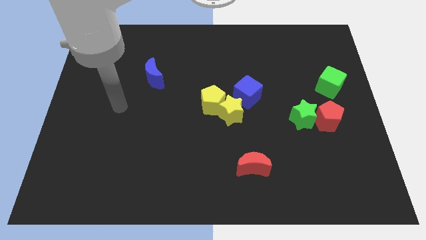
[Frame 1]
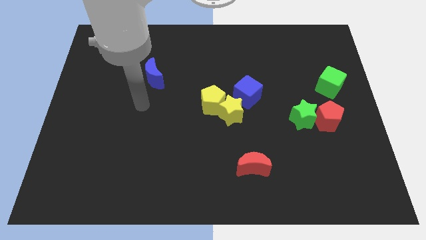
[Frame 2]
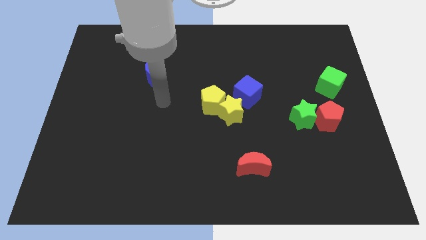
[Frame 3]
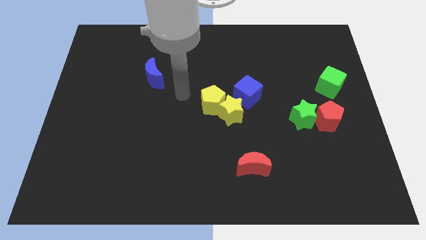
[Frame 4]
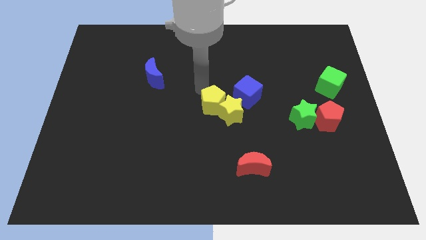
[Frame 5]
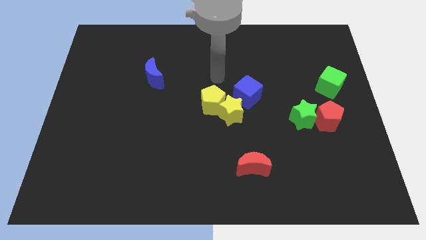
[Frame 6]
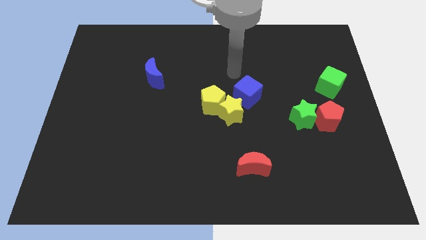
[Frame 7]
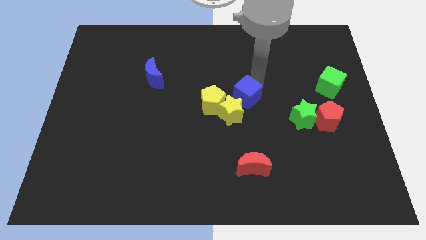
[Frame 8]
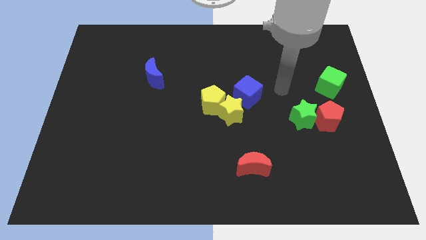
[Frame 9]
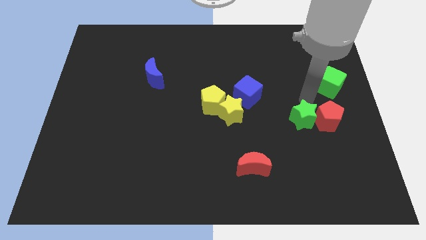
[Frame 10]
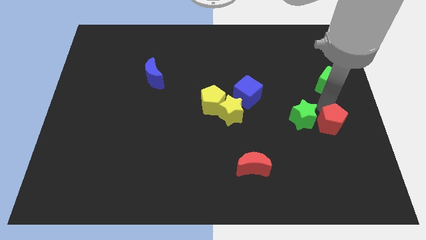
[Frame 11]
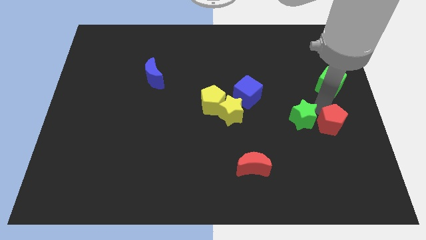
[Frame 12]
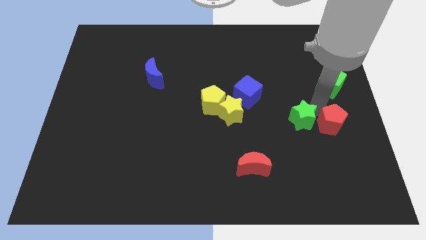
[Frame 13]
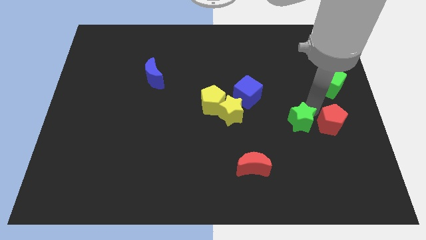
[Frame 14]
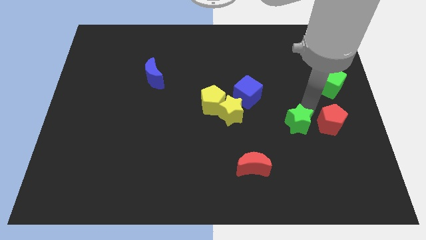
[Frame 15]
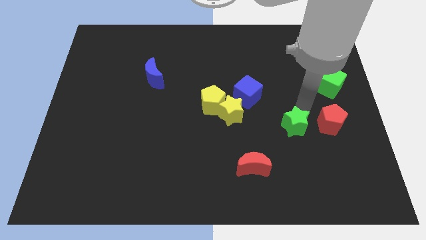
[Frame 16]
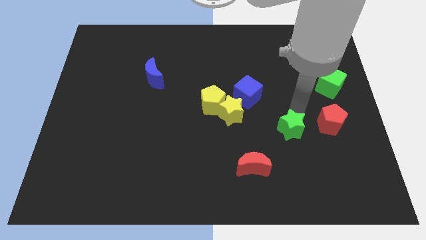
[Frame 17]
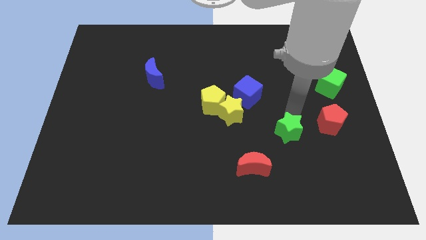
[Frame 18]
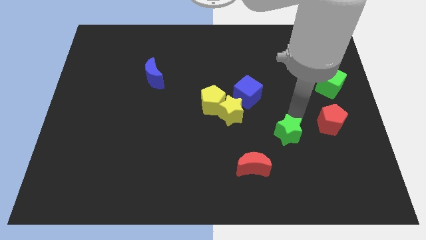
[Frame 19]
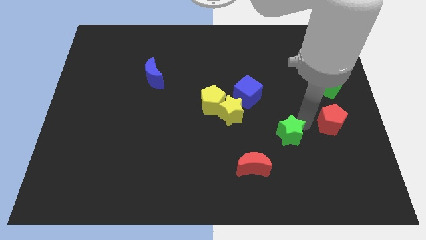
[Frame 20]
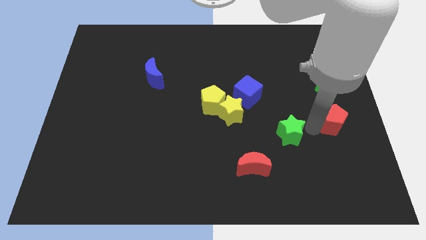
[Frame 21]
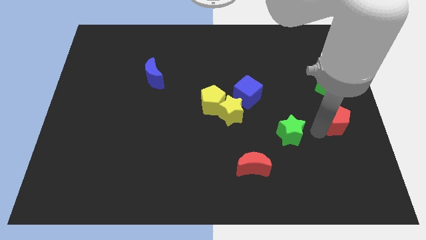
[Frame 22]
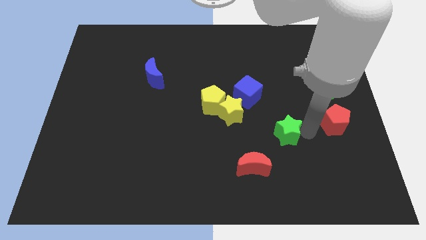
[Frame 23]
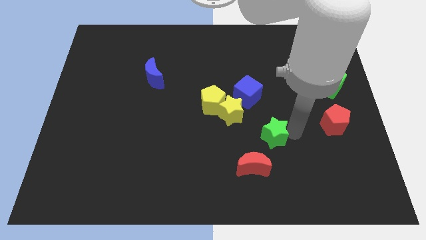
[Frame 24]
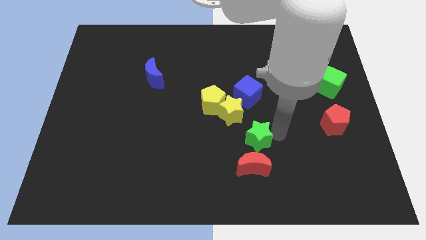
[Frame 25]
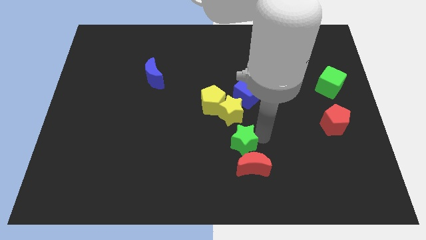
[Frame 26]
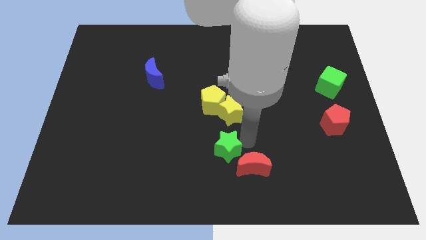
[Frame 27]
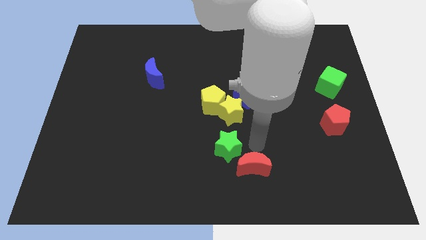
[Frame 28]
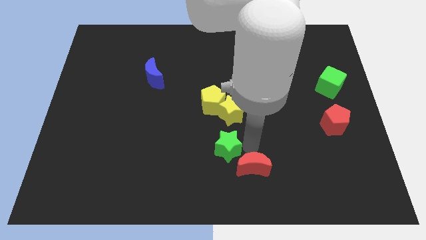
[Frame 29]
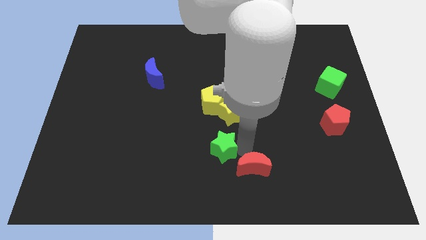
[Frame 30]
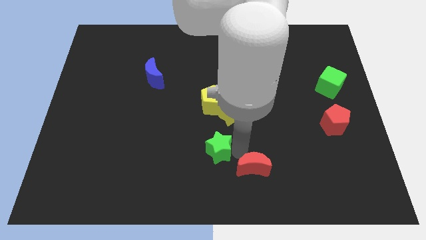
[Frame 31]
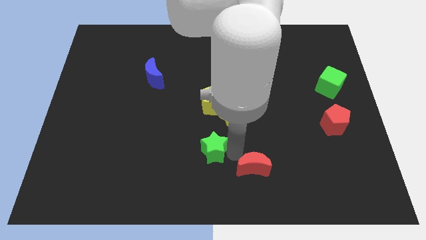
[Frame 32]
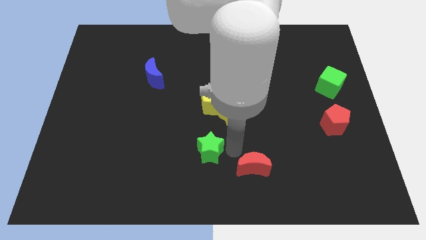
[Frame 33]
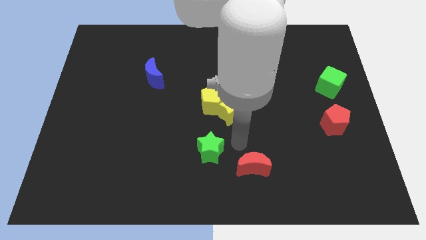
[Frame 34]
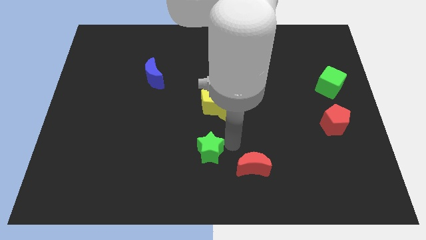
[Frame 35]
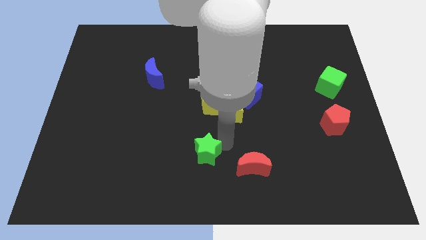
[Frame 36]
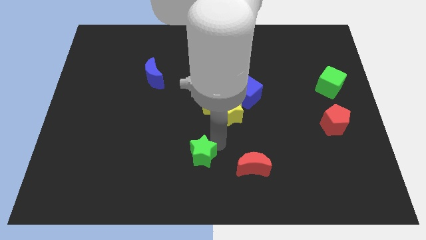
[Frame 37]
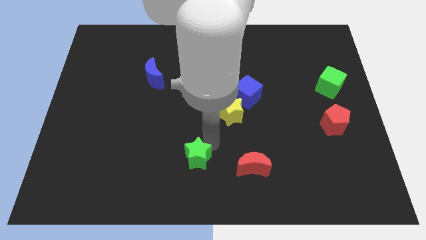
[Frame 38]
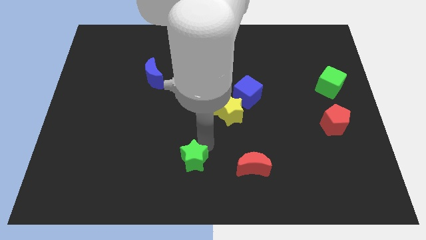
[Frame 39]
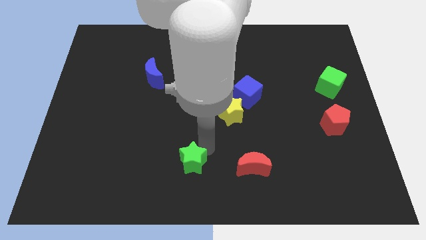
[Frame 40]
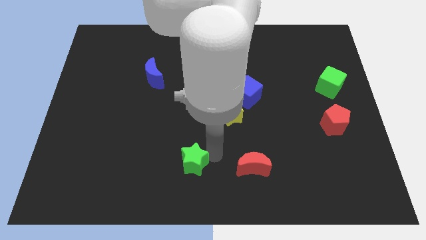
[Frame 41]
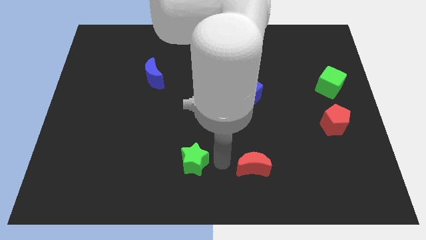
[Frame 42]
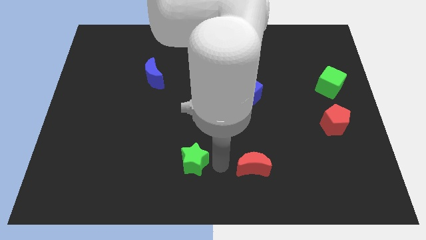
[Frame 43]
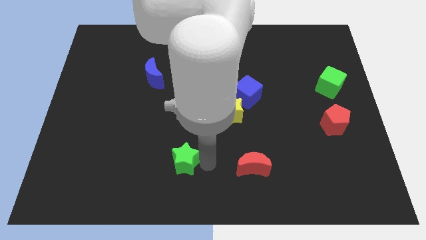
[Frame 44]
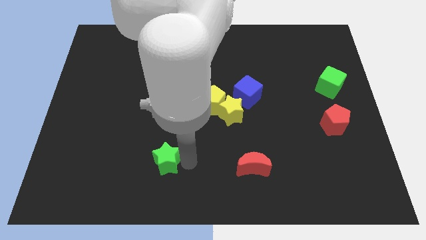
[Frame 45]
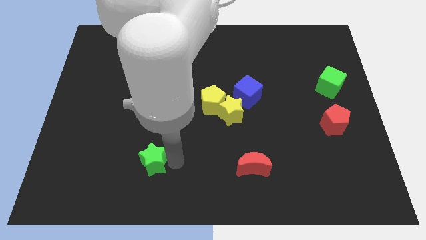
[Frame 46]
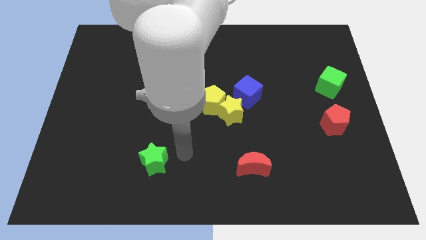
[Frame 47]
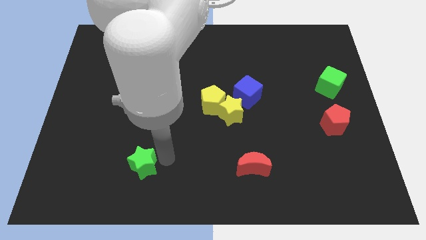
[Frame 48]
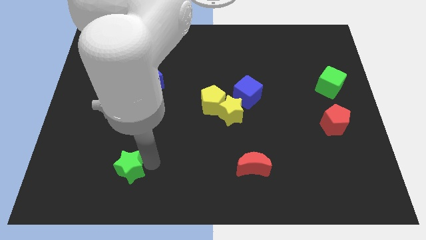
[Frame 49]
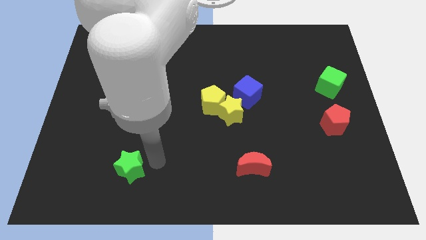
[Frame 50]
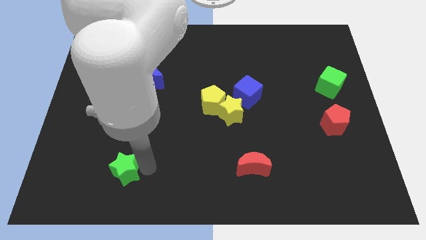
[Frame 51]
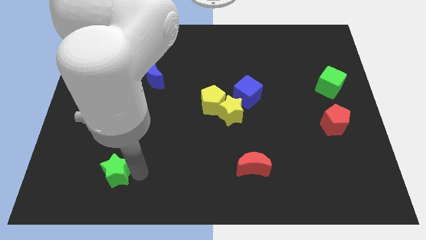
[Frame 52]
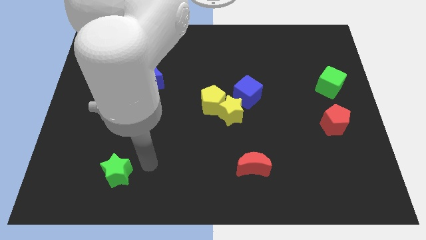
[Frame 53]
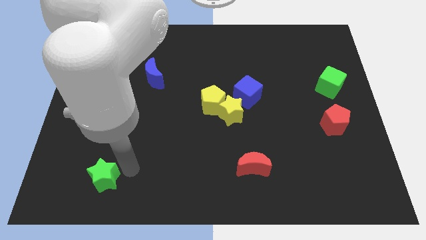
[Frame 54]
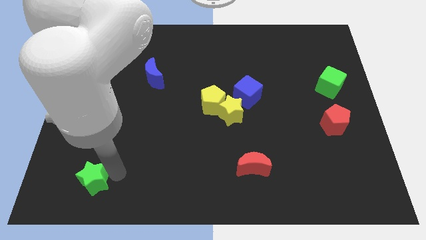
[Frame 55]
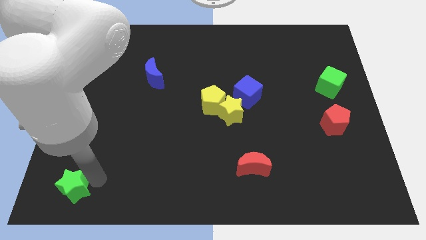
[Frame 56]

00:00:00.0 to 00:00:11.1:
slide the green star to the bottom left of the board

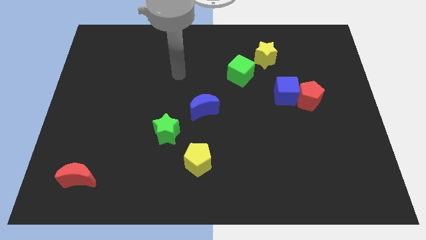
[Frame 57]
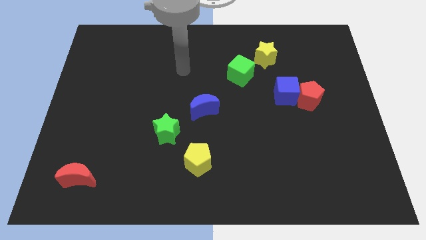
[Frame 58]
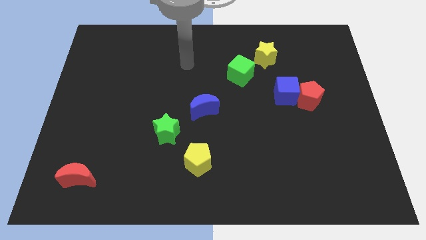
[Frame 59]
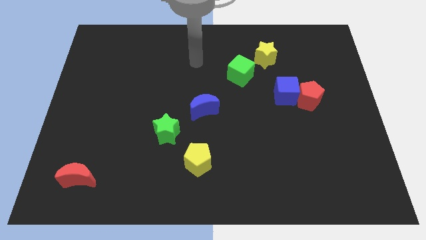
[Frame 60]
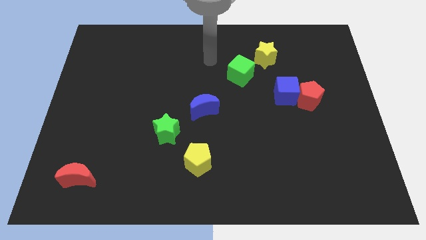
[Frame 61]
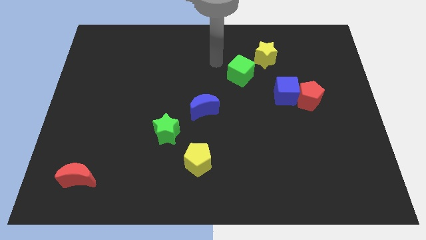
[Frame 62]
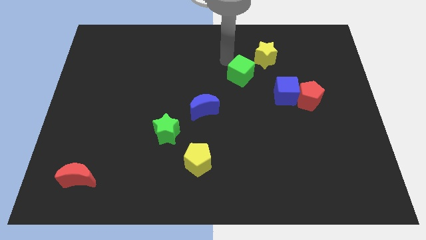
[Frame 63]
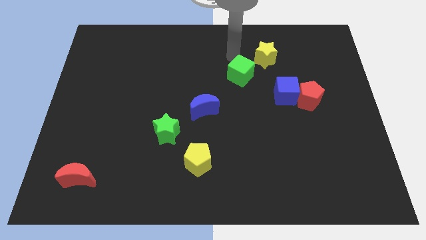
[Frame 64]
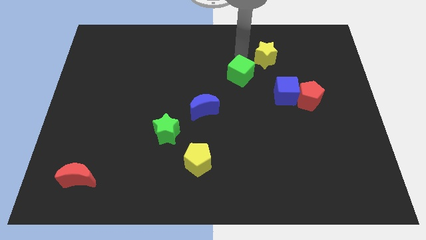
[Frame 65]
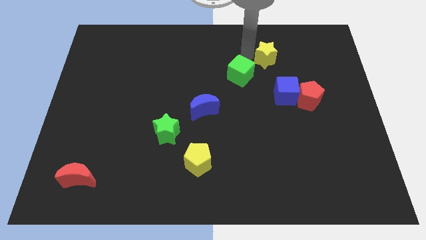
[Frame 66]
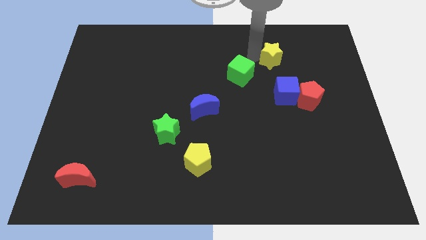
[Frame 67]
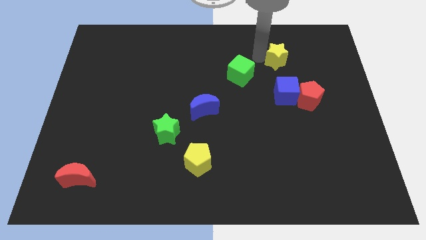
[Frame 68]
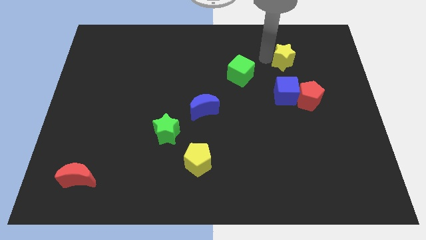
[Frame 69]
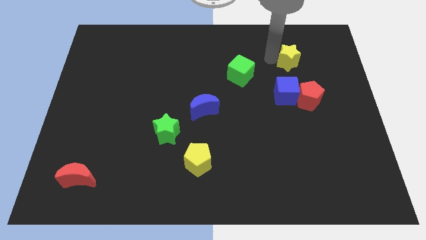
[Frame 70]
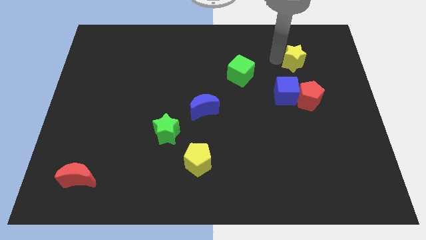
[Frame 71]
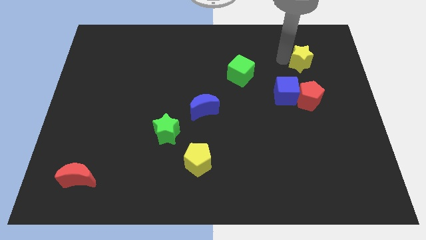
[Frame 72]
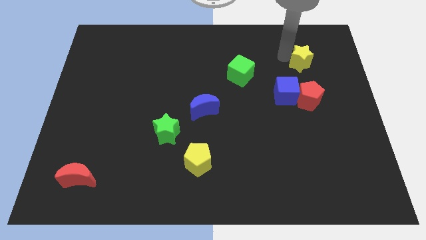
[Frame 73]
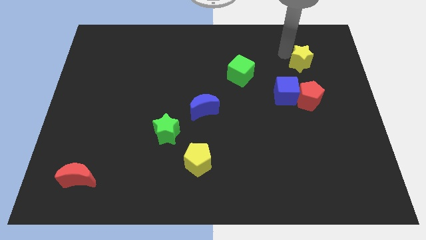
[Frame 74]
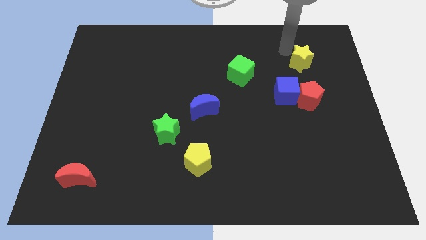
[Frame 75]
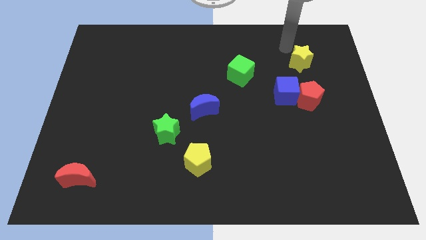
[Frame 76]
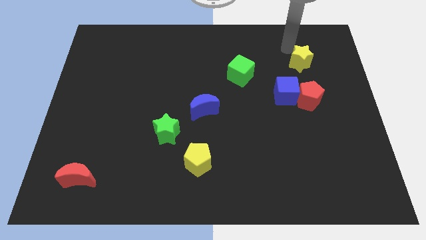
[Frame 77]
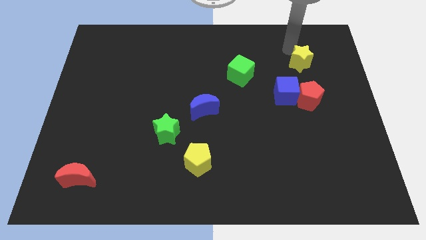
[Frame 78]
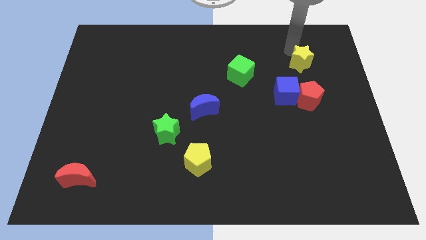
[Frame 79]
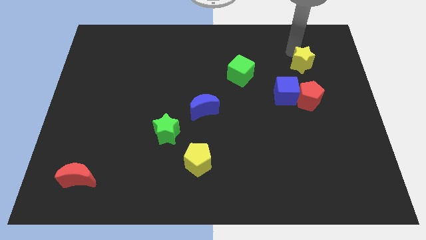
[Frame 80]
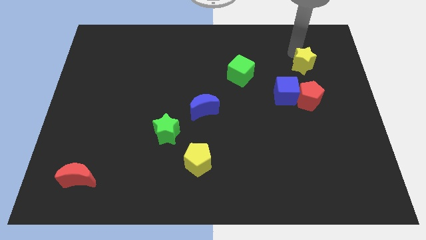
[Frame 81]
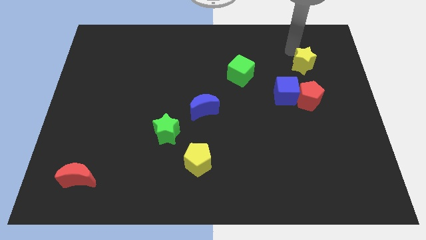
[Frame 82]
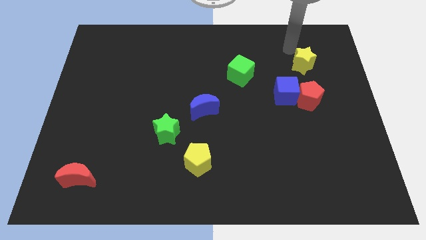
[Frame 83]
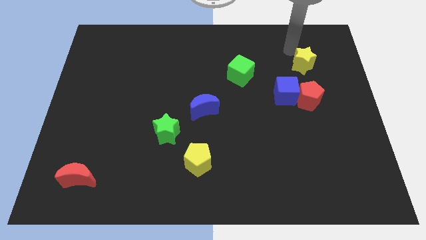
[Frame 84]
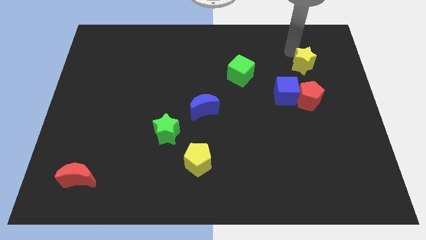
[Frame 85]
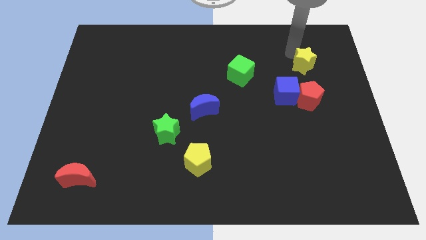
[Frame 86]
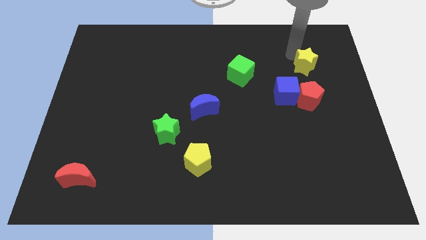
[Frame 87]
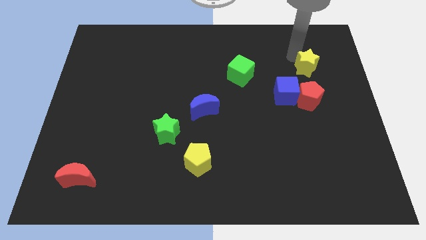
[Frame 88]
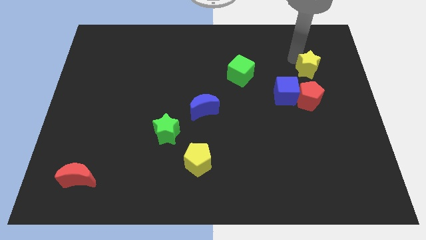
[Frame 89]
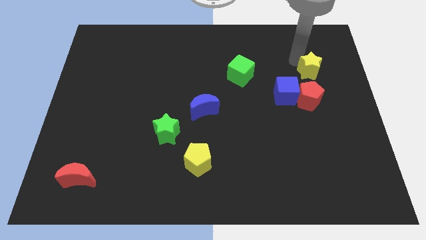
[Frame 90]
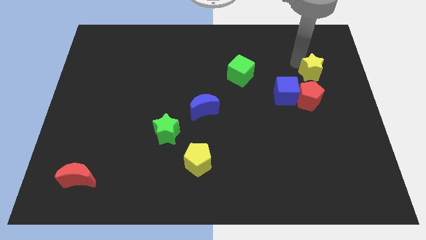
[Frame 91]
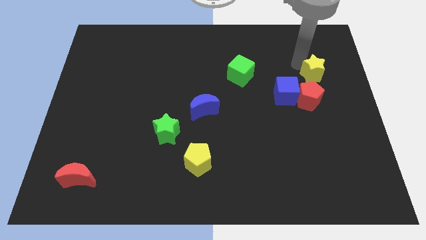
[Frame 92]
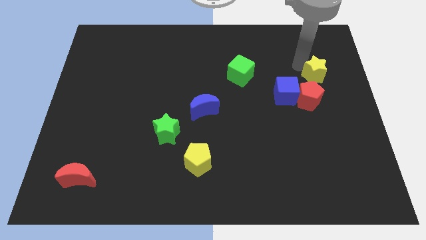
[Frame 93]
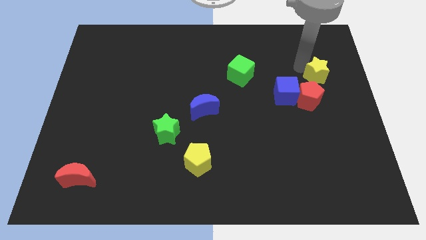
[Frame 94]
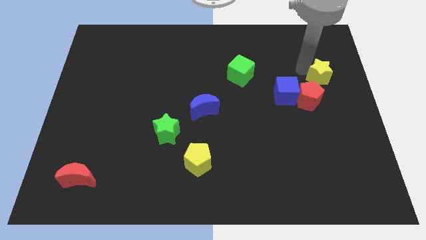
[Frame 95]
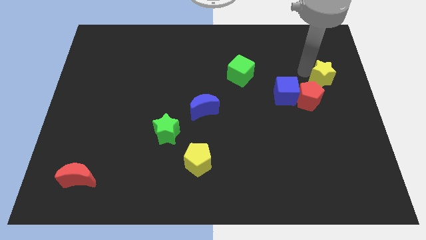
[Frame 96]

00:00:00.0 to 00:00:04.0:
slide the yellow star to the right side
